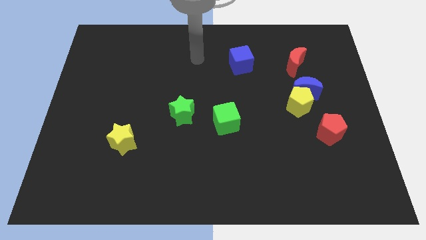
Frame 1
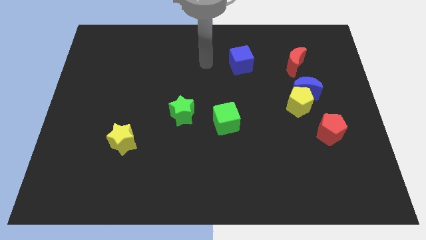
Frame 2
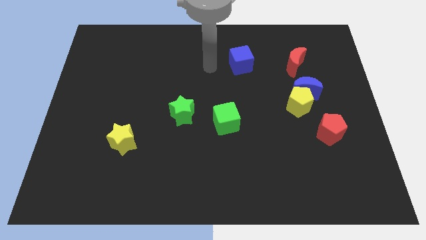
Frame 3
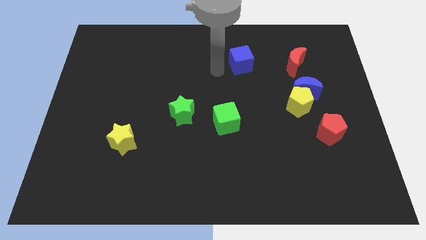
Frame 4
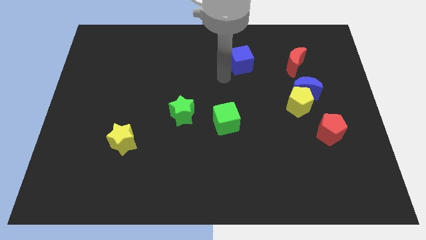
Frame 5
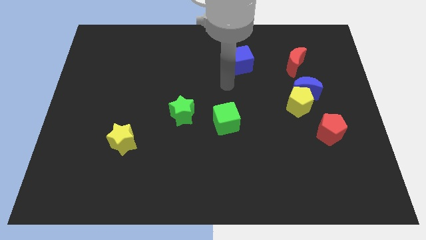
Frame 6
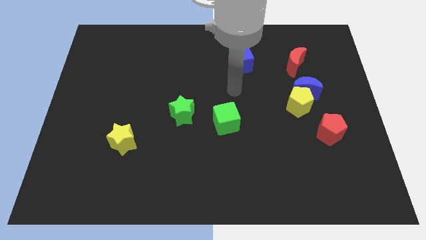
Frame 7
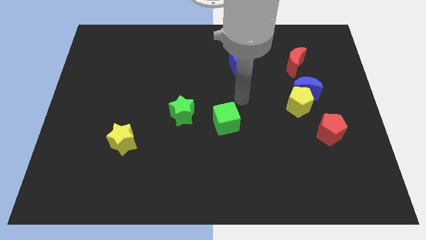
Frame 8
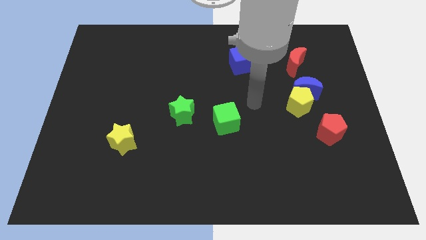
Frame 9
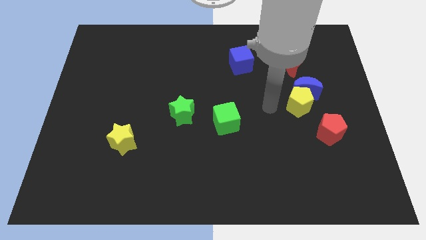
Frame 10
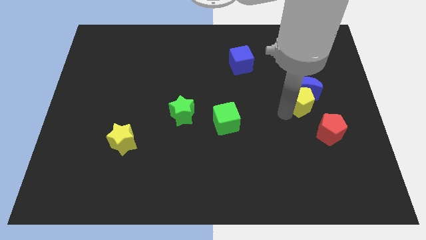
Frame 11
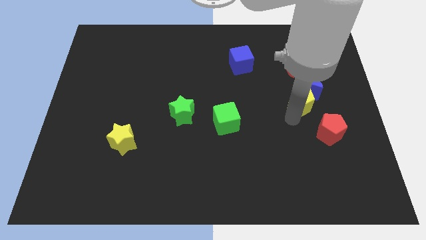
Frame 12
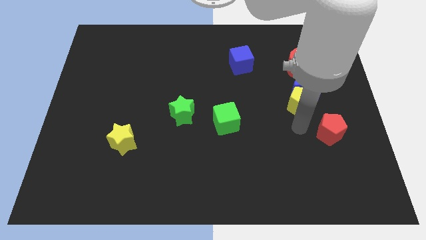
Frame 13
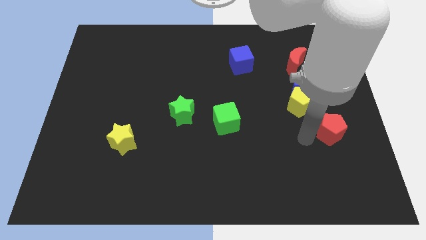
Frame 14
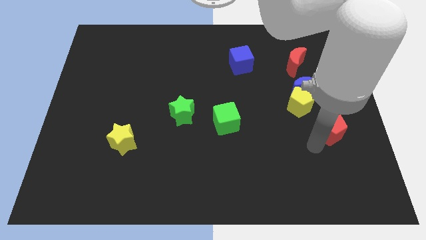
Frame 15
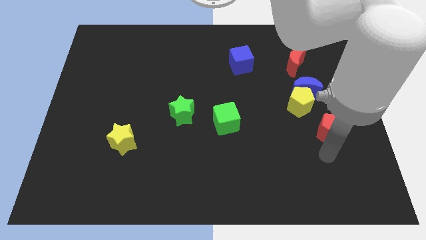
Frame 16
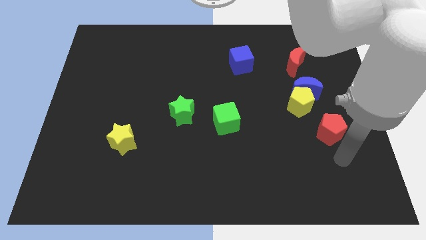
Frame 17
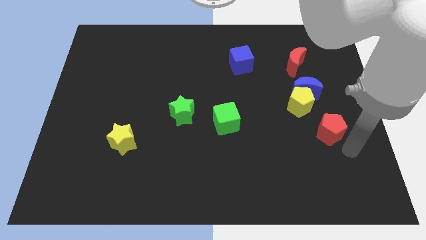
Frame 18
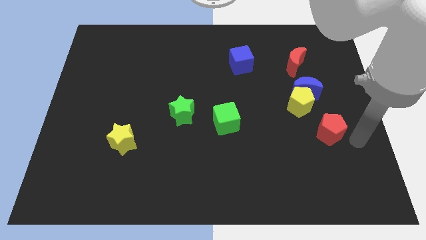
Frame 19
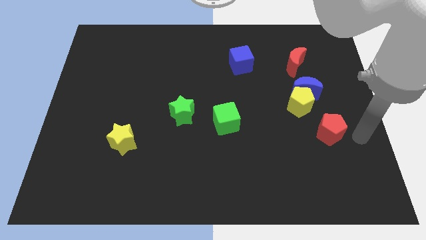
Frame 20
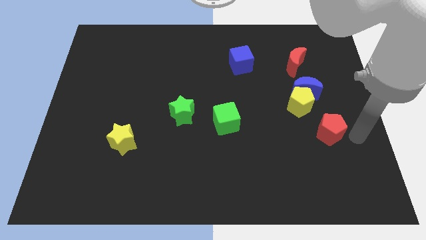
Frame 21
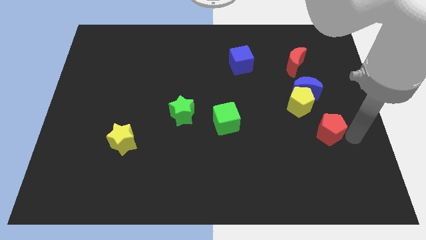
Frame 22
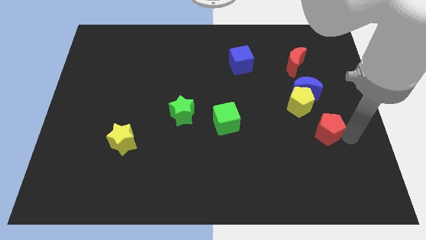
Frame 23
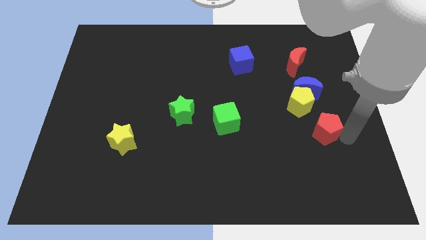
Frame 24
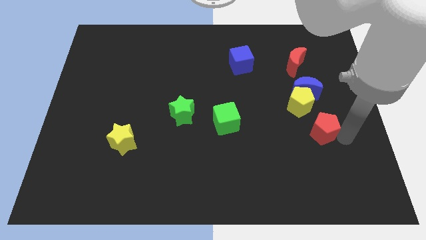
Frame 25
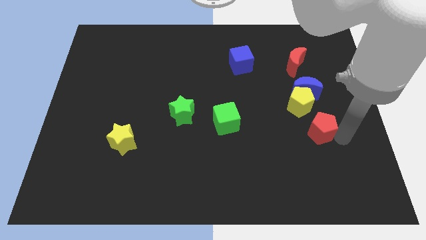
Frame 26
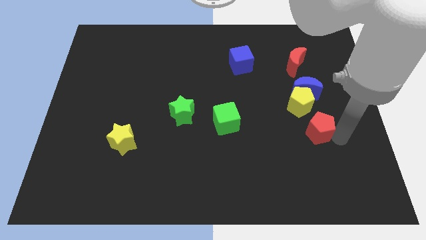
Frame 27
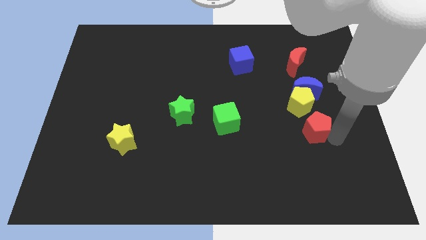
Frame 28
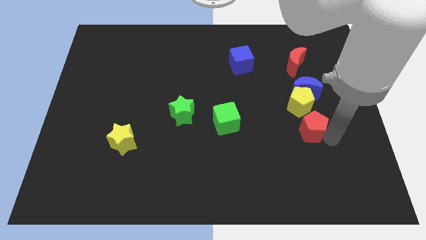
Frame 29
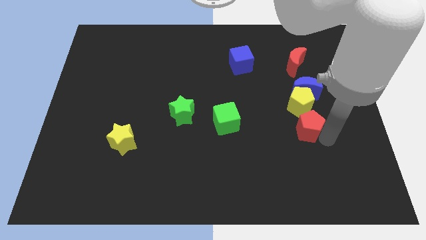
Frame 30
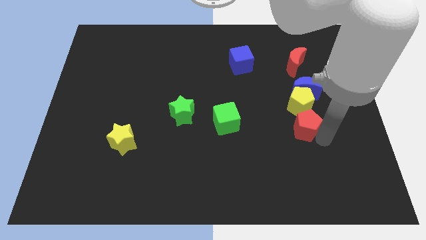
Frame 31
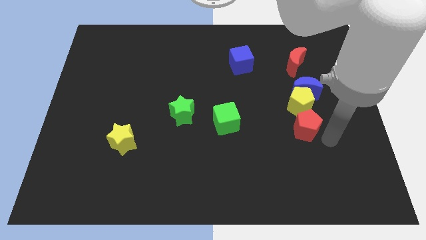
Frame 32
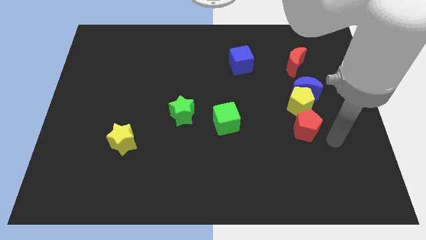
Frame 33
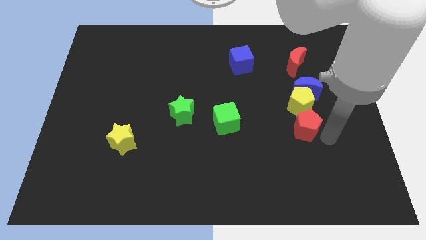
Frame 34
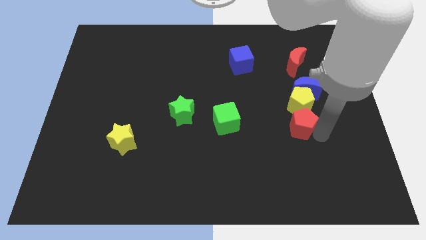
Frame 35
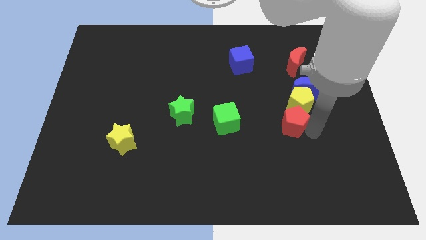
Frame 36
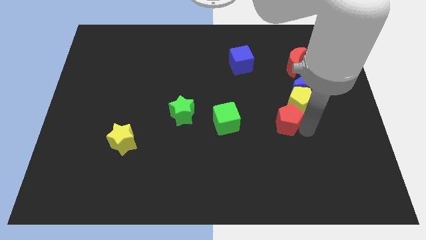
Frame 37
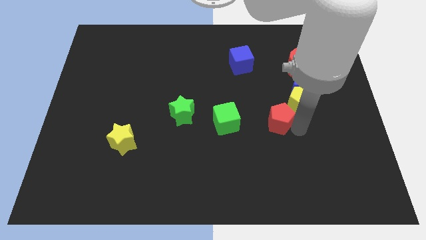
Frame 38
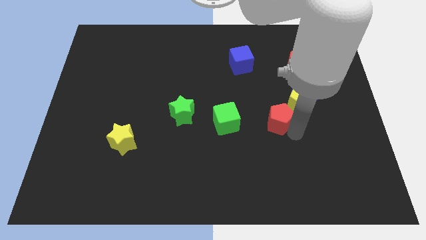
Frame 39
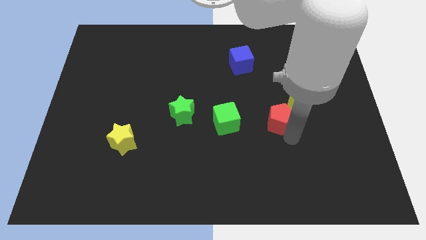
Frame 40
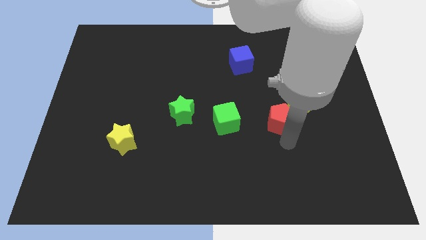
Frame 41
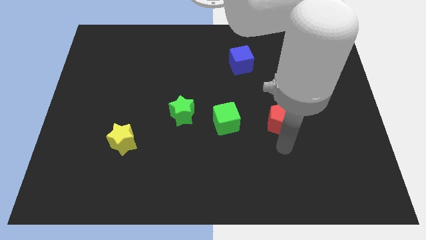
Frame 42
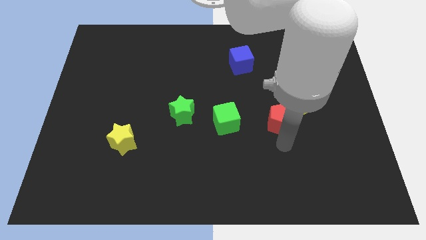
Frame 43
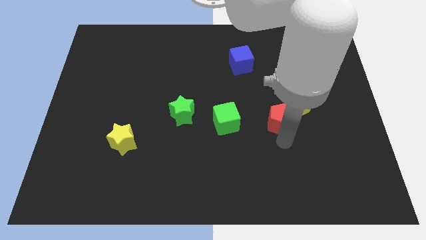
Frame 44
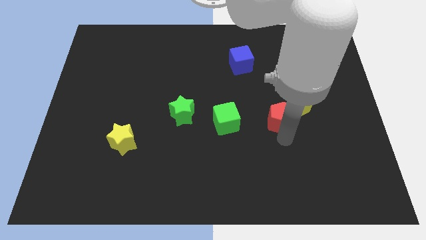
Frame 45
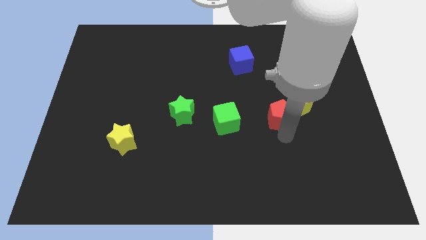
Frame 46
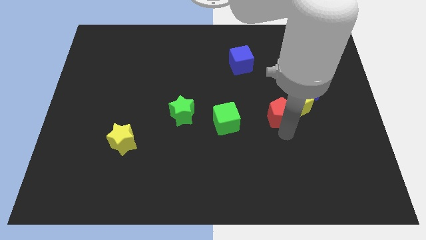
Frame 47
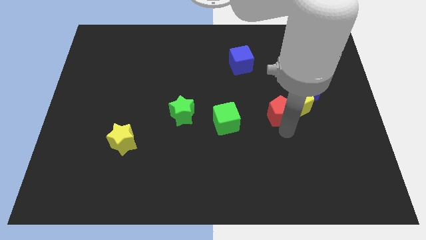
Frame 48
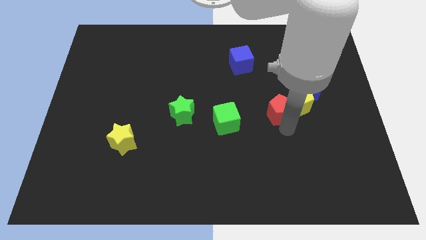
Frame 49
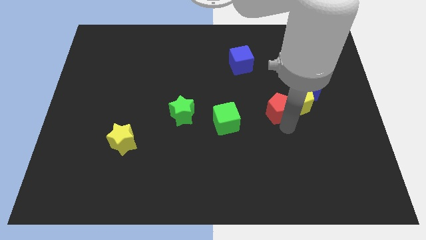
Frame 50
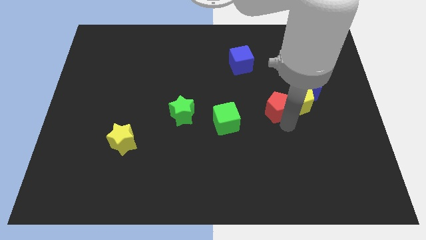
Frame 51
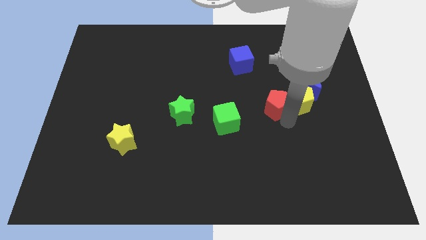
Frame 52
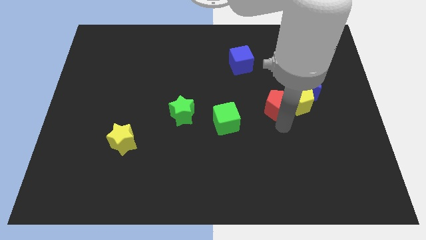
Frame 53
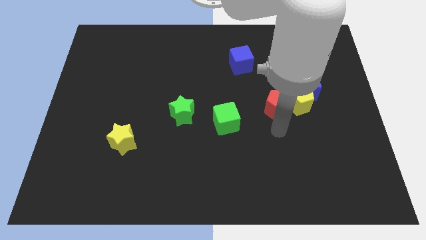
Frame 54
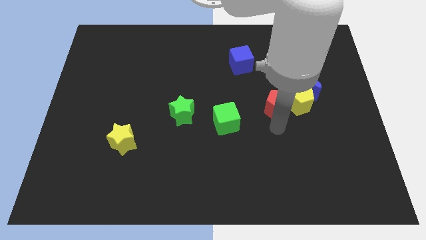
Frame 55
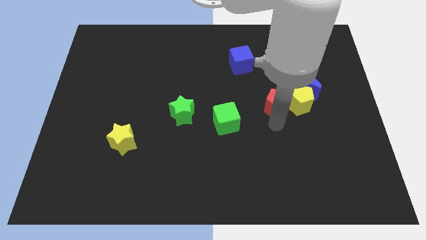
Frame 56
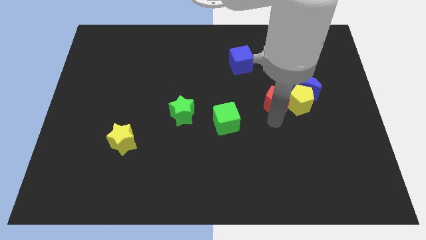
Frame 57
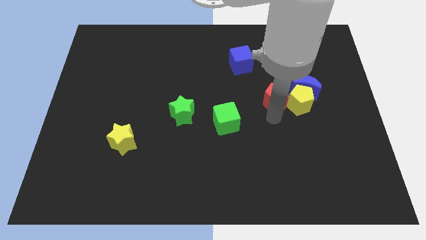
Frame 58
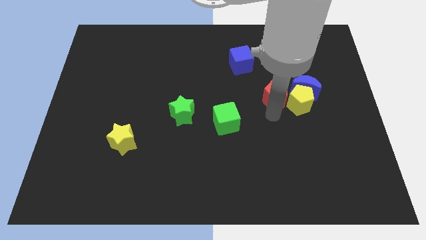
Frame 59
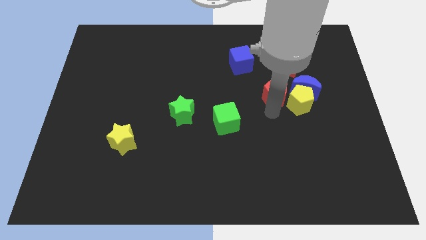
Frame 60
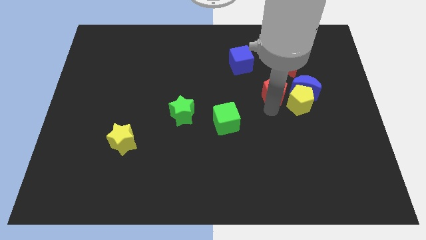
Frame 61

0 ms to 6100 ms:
slide the red pentagon to the bottom left side of the red moon
